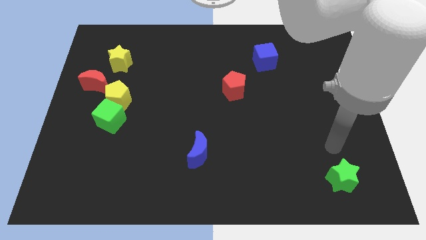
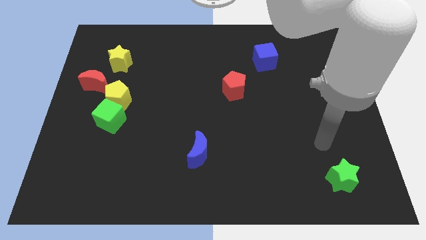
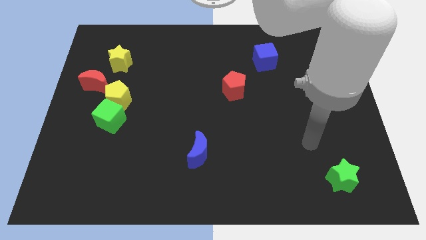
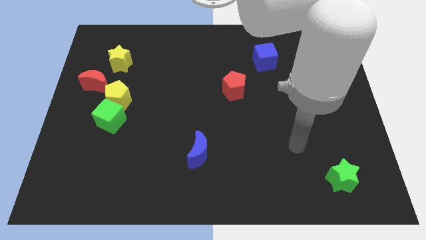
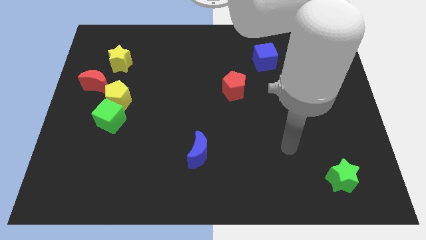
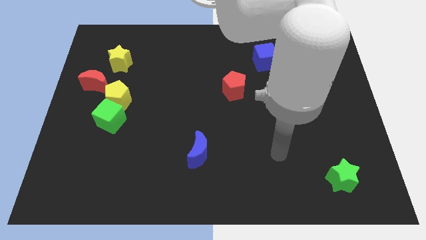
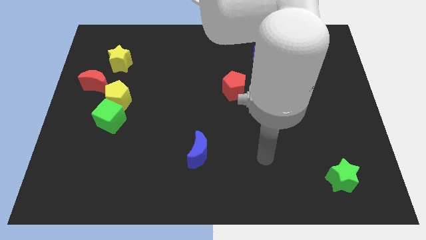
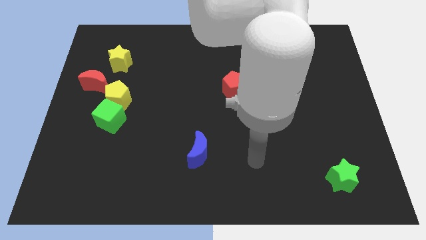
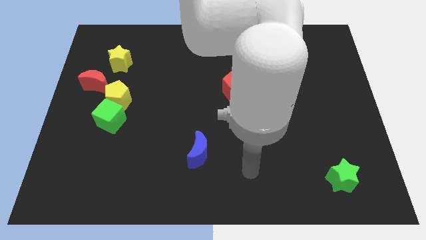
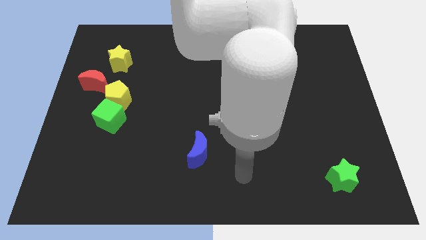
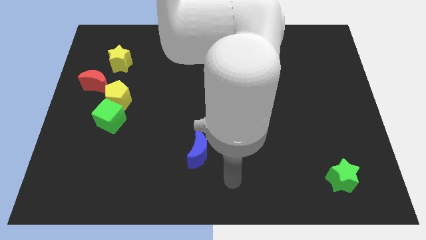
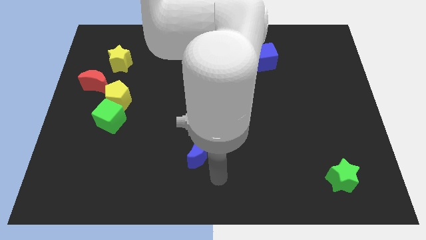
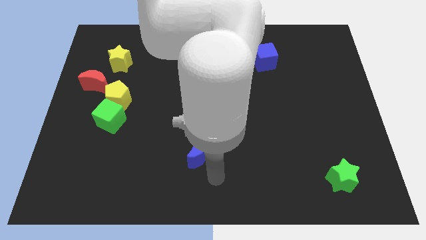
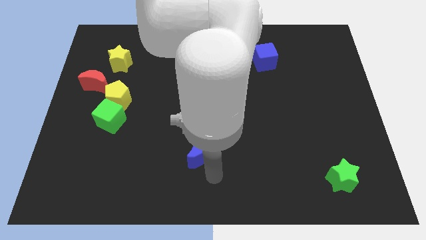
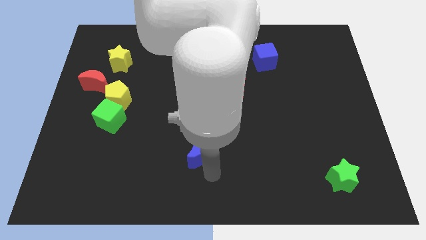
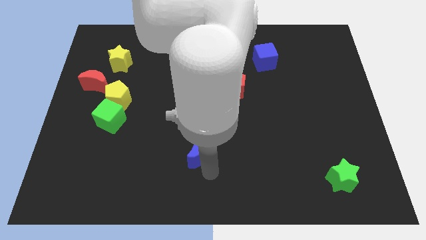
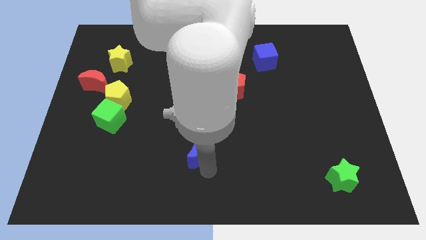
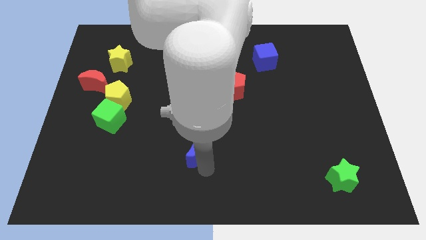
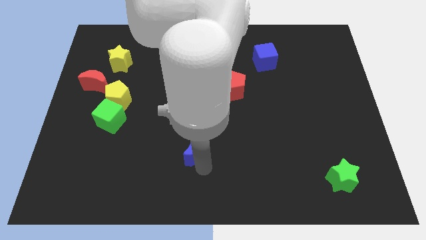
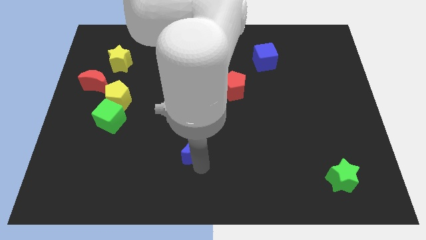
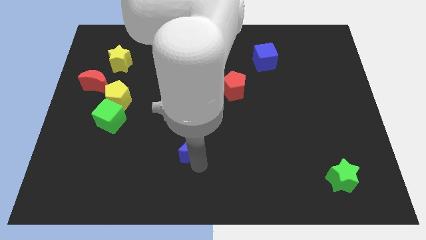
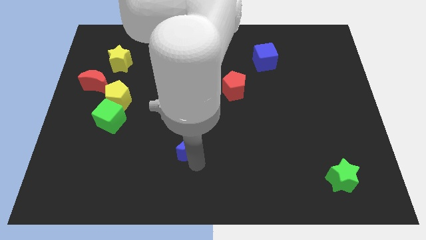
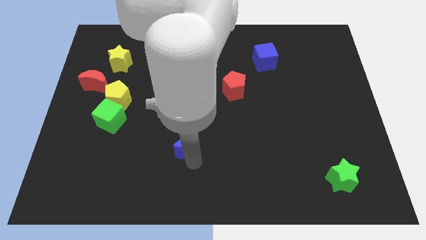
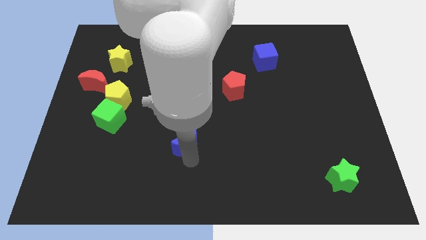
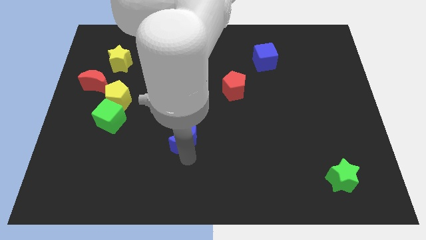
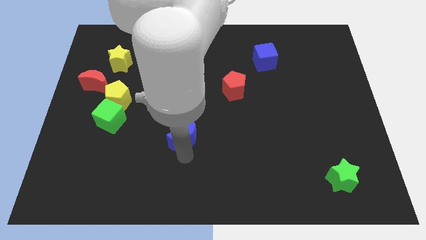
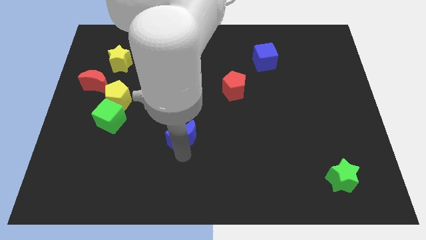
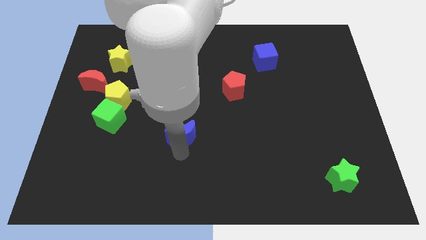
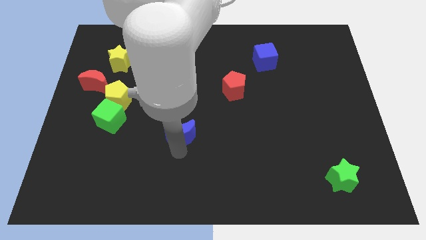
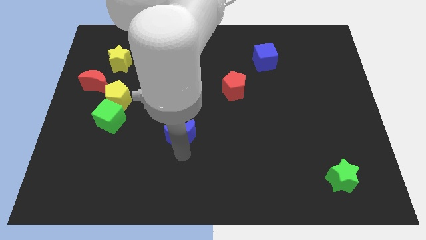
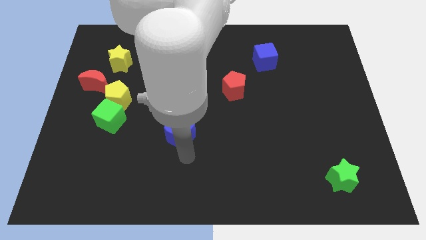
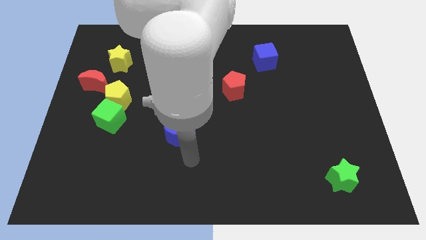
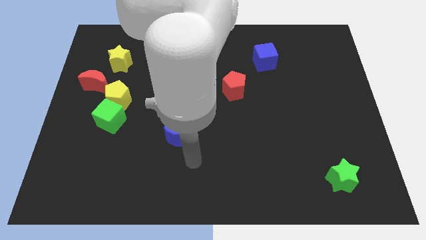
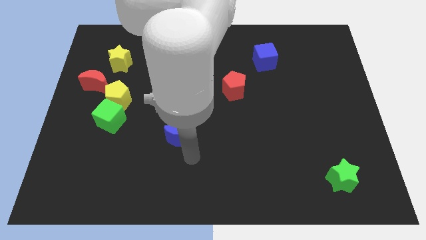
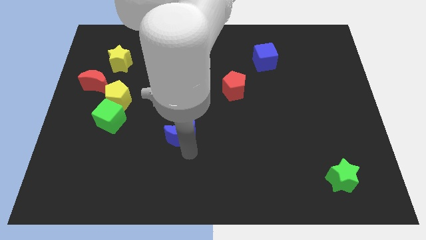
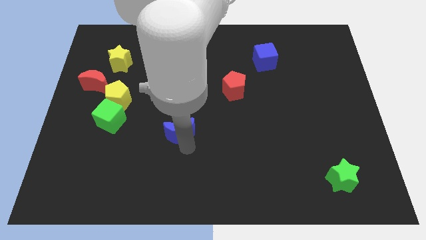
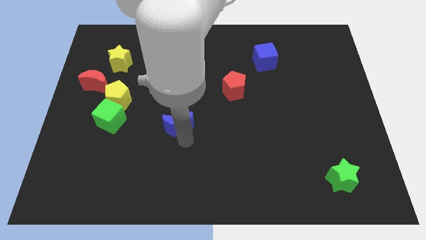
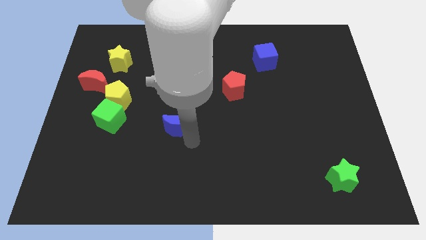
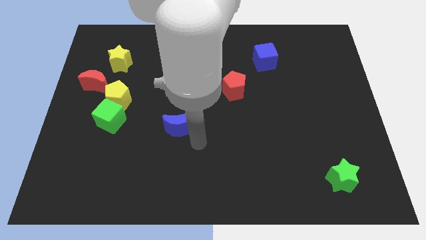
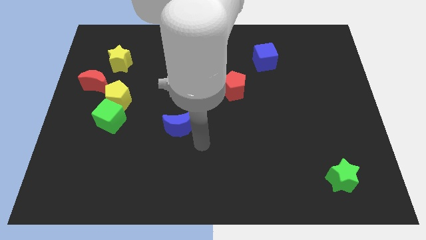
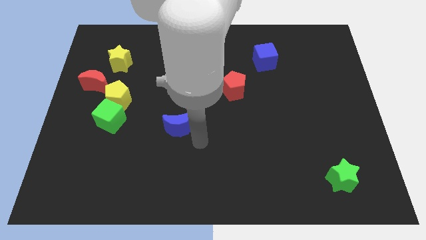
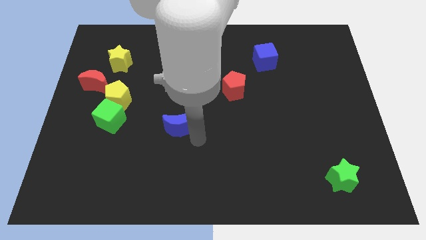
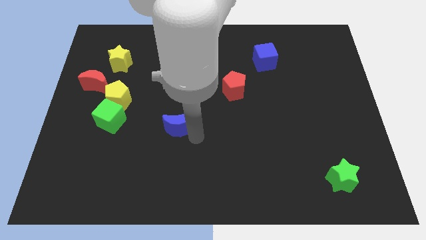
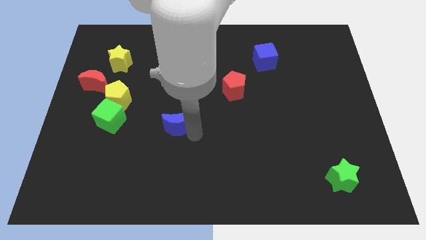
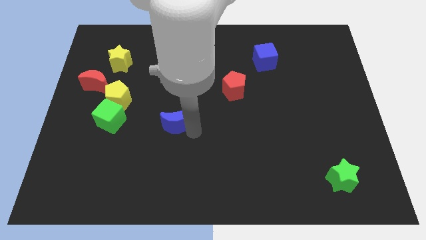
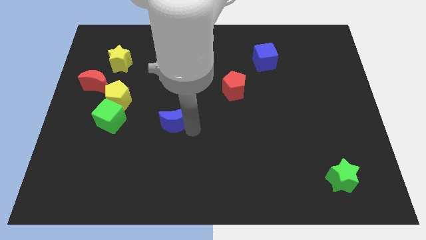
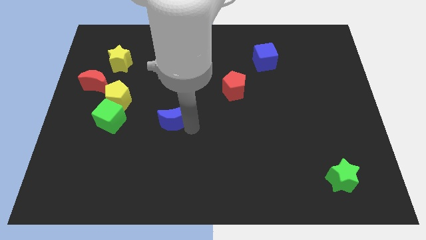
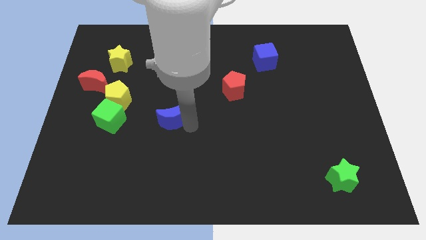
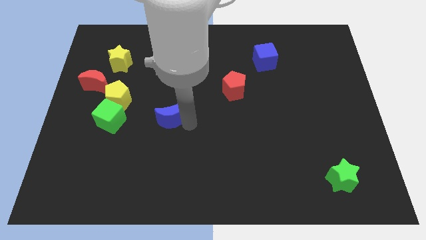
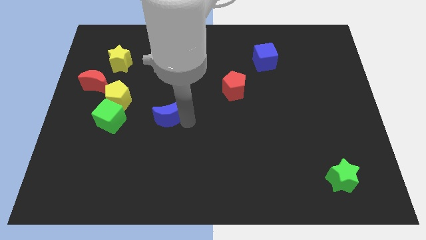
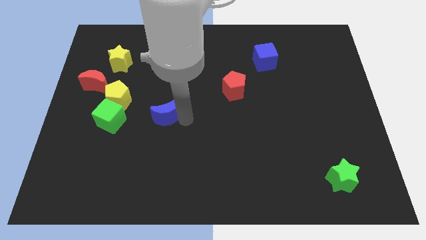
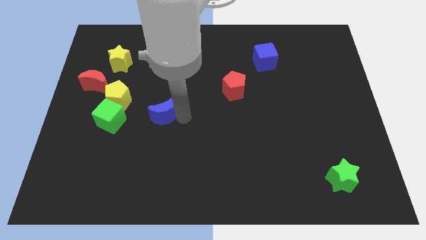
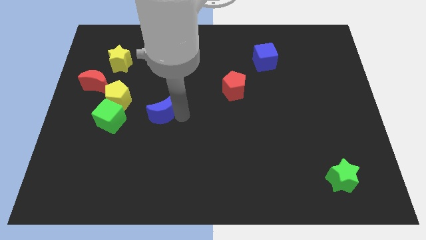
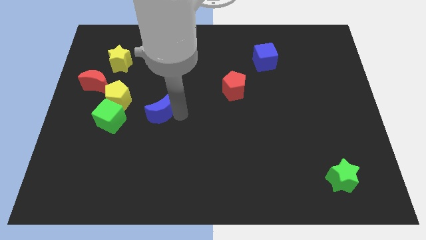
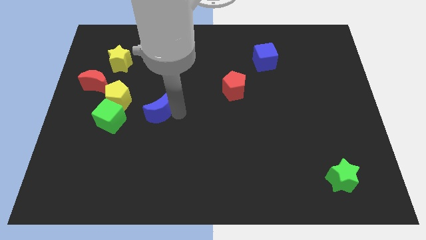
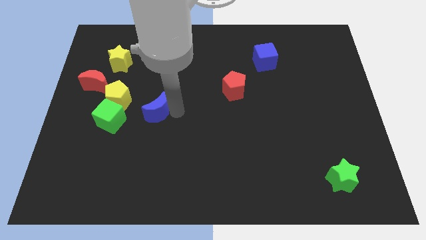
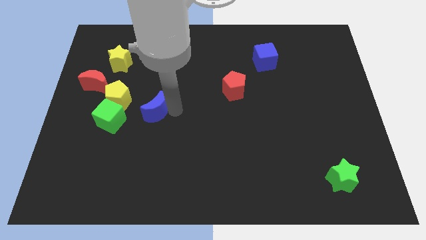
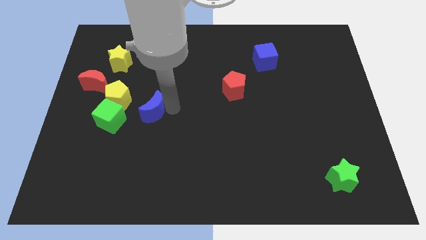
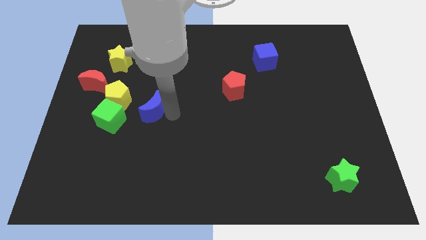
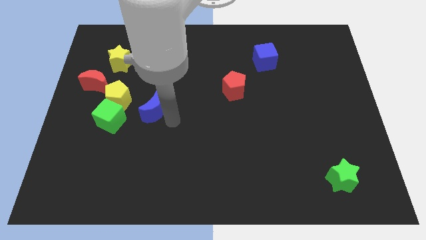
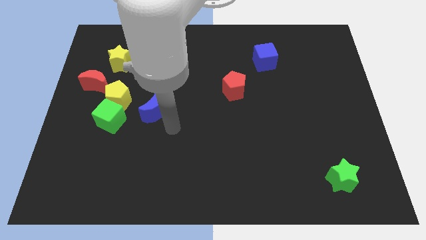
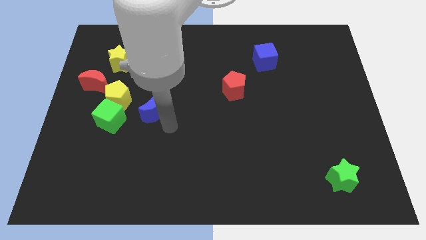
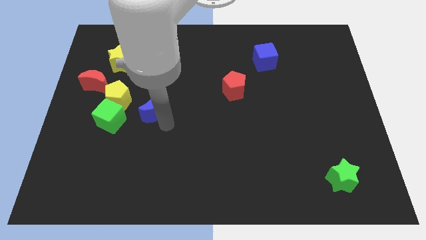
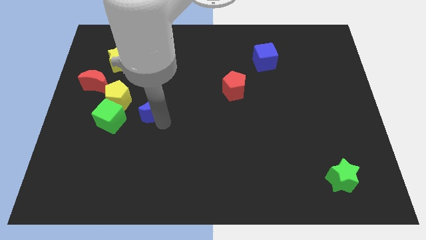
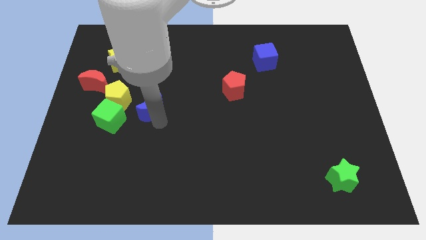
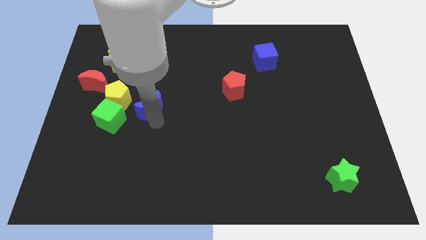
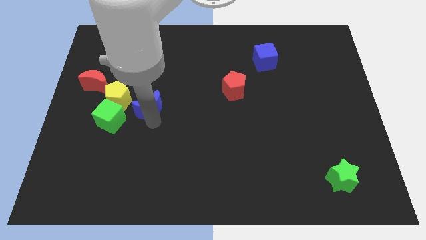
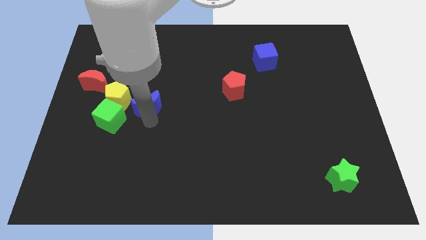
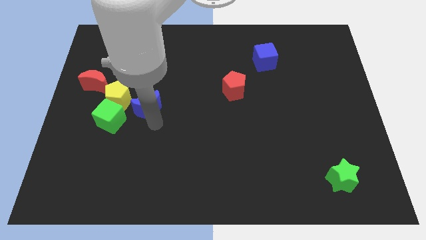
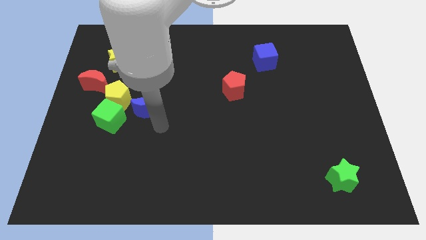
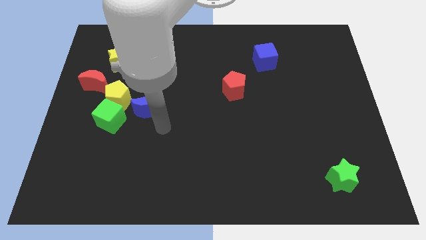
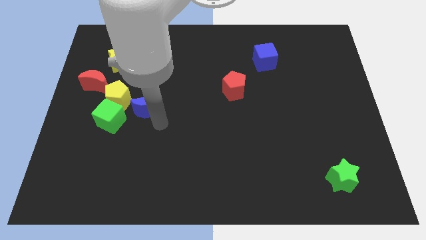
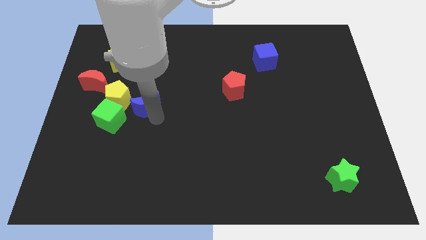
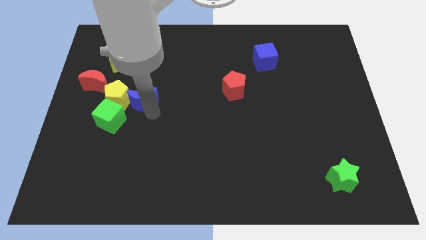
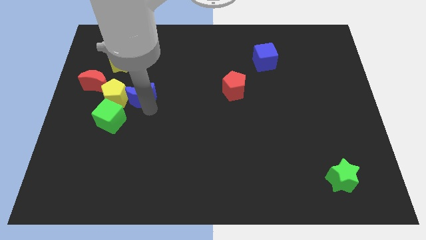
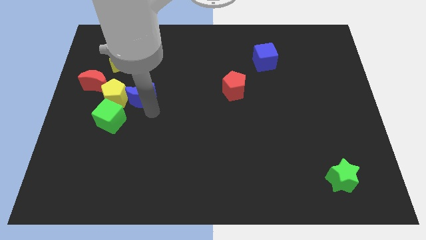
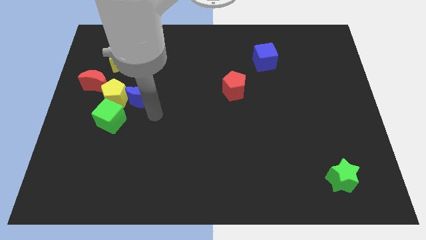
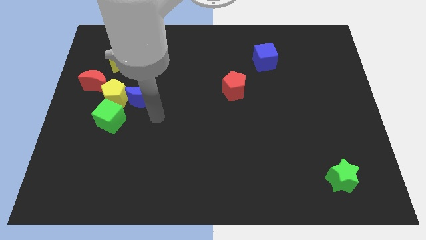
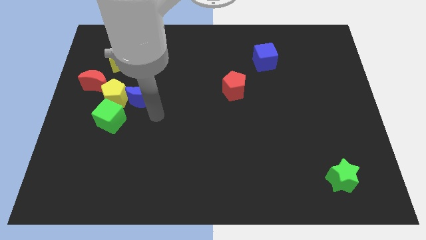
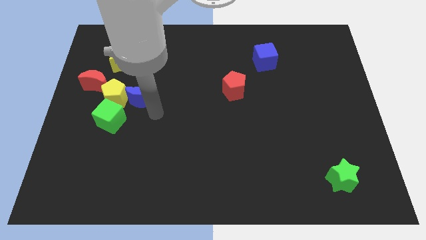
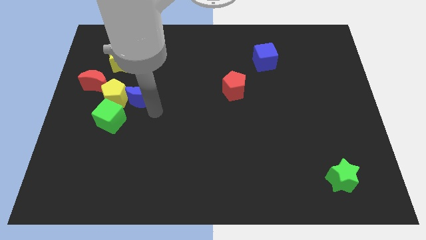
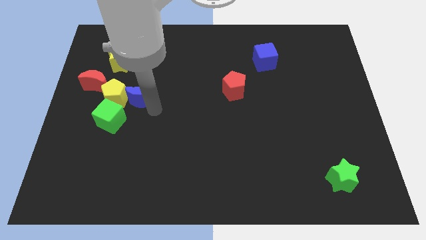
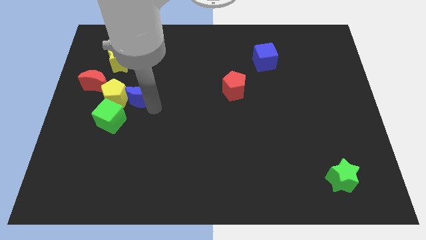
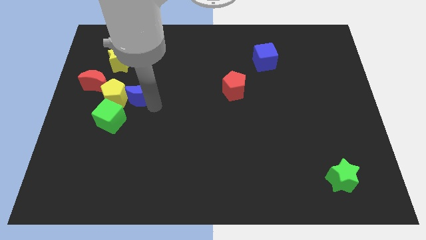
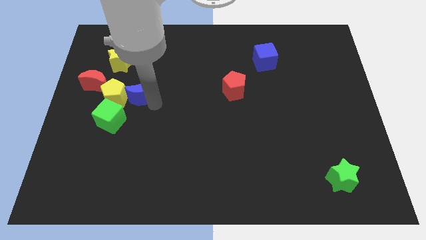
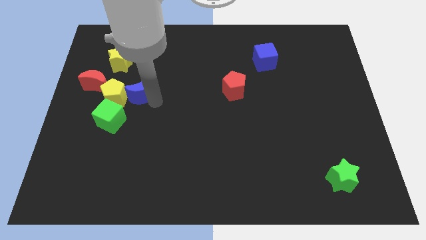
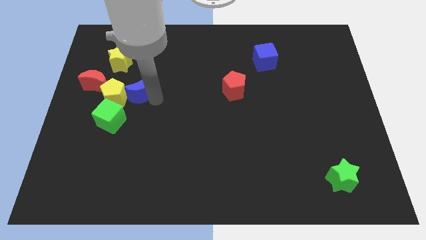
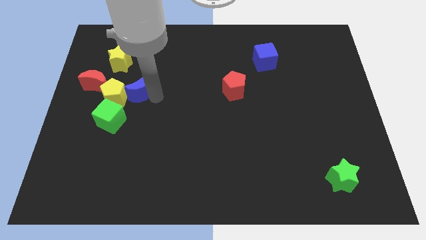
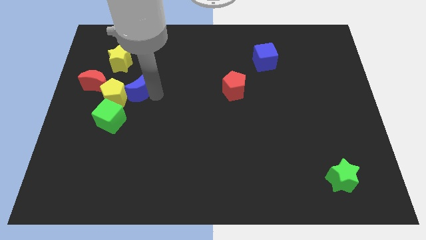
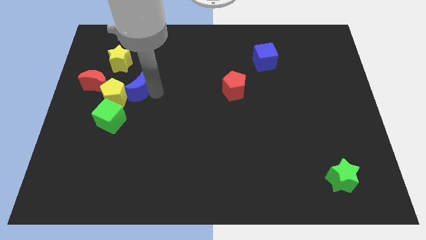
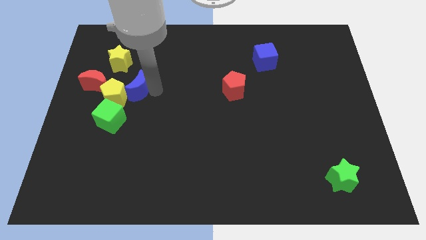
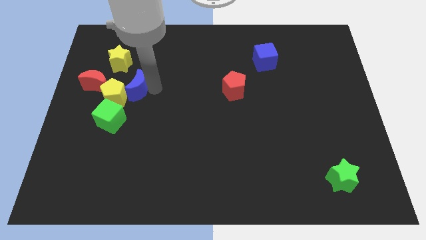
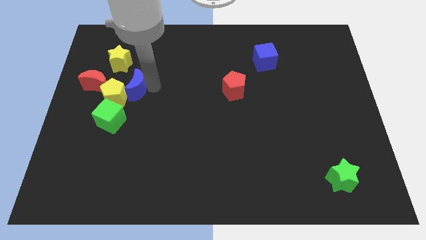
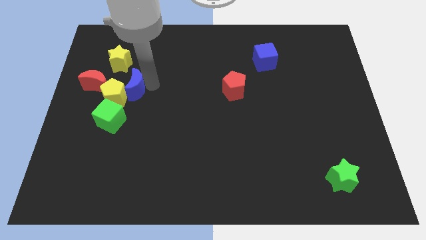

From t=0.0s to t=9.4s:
slide the blue moon to the top side of the green cube
